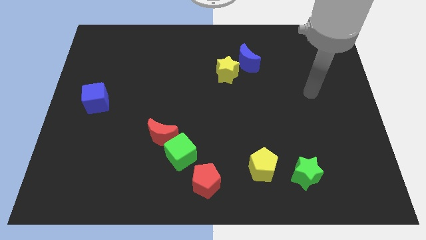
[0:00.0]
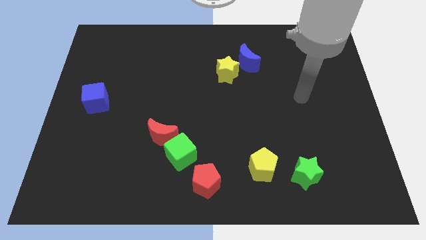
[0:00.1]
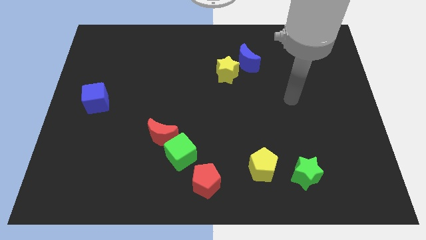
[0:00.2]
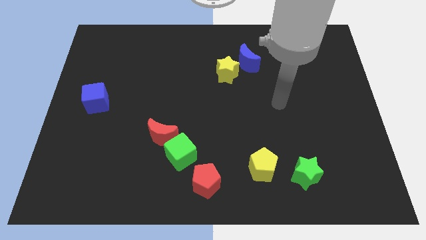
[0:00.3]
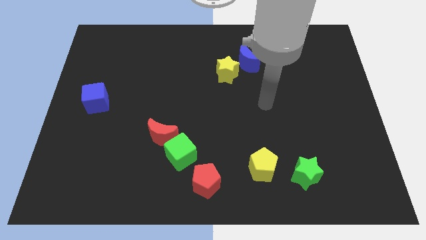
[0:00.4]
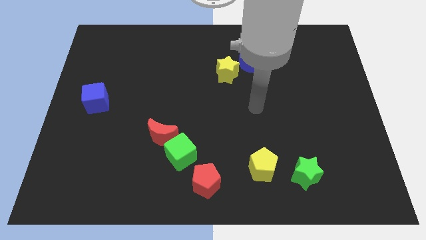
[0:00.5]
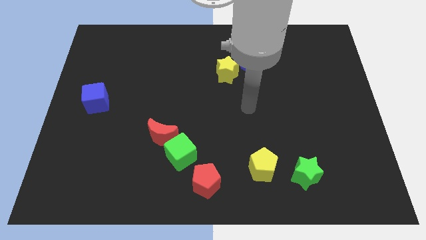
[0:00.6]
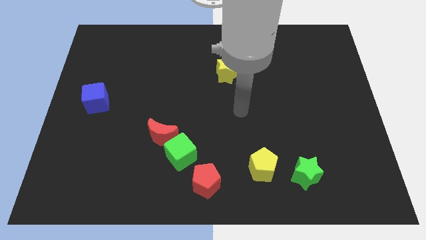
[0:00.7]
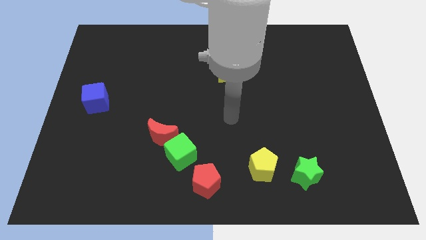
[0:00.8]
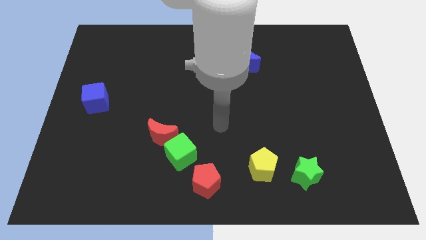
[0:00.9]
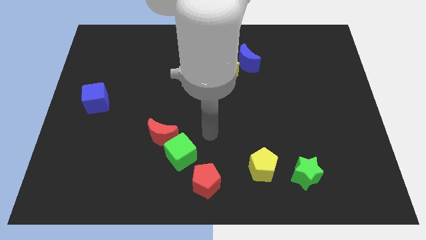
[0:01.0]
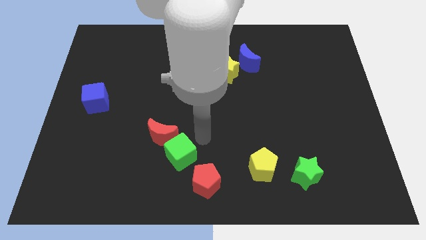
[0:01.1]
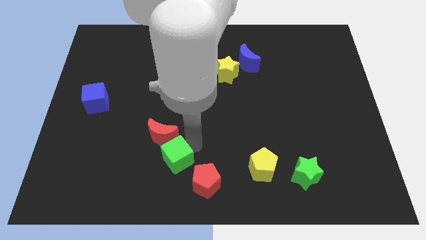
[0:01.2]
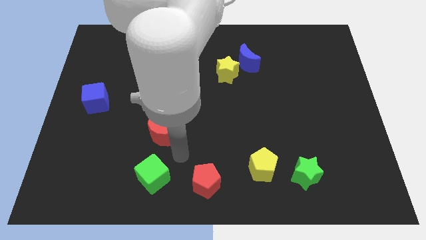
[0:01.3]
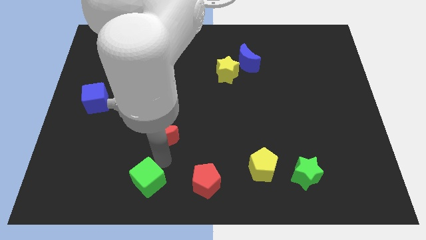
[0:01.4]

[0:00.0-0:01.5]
separate the red moon from the green cube

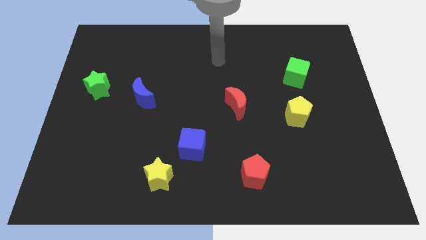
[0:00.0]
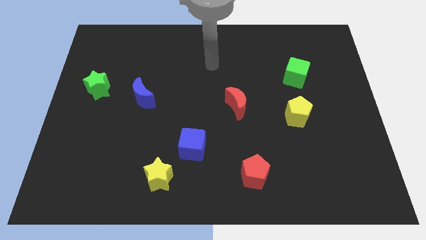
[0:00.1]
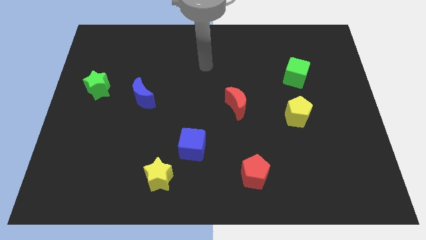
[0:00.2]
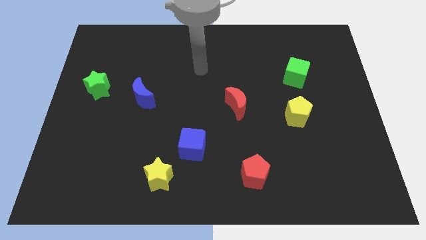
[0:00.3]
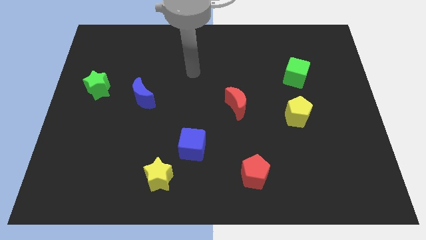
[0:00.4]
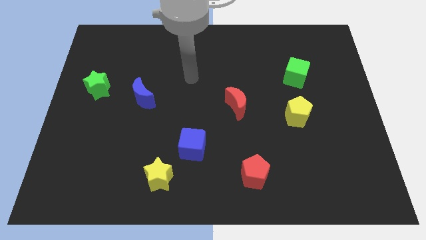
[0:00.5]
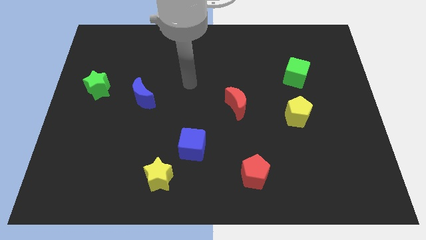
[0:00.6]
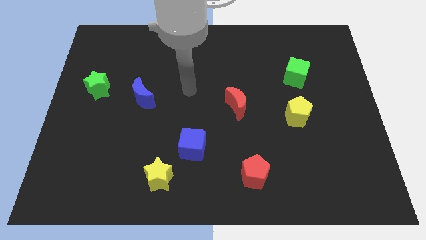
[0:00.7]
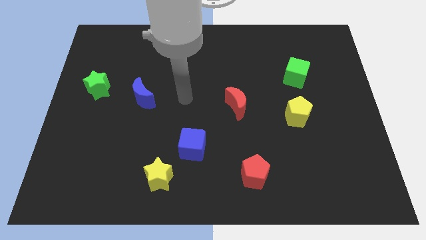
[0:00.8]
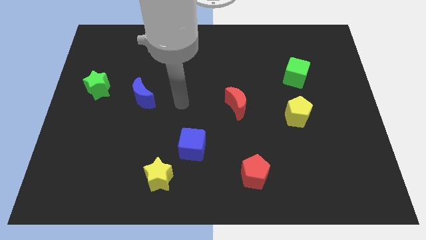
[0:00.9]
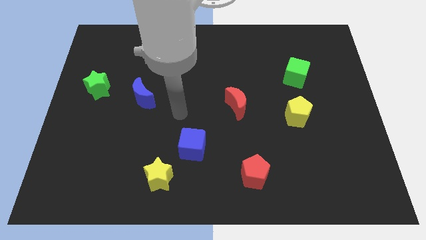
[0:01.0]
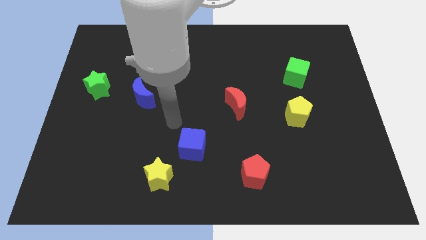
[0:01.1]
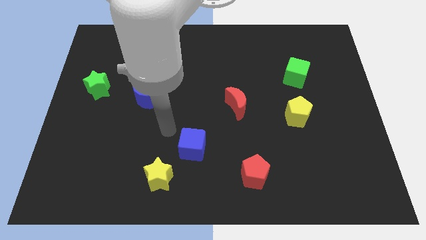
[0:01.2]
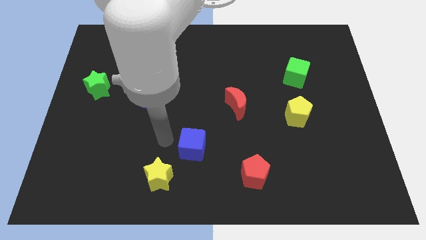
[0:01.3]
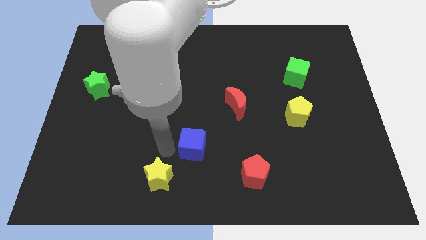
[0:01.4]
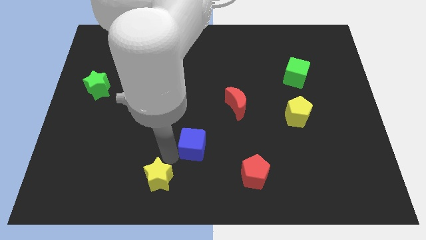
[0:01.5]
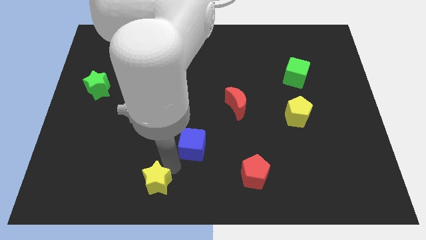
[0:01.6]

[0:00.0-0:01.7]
separate the blue cube from the yellow star

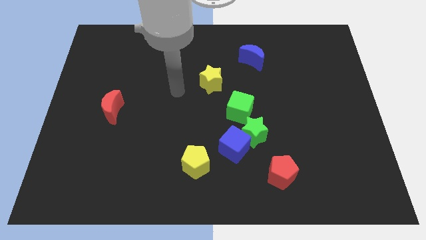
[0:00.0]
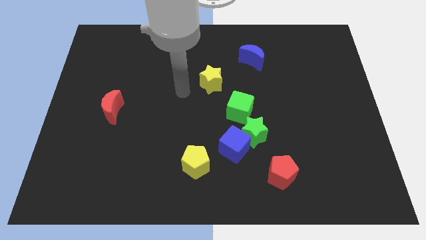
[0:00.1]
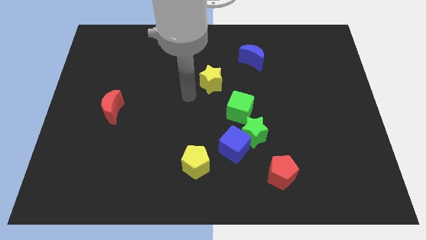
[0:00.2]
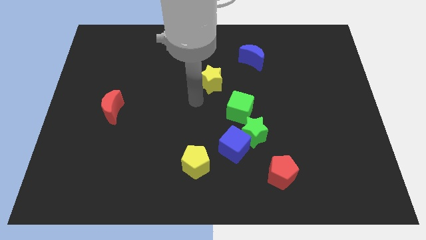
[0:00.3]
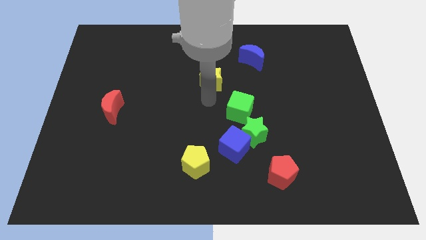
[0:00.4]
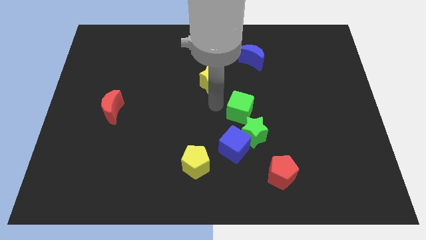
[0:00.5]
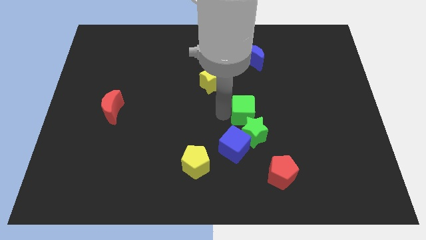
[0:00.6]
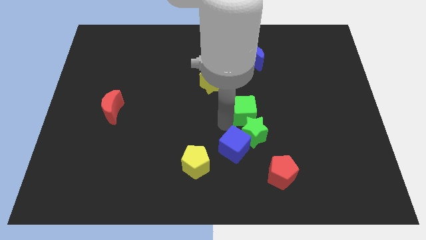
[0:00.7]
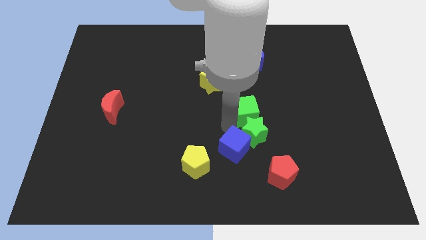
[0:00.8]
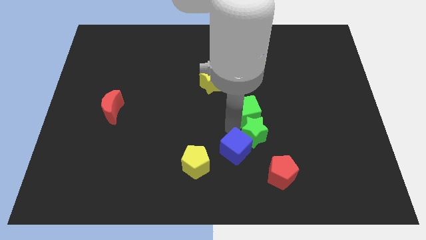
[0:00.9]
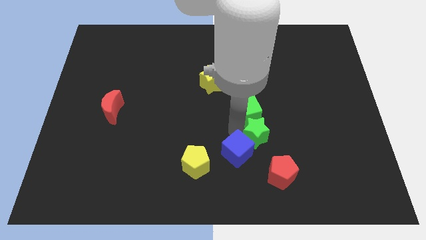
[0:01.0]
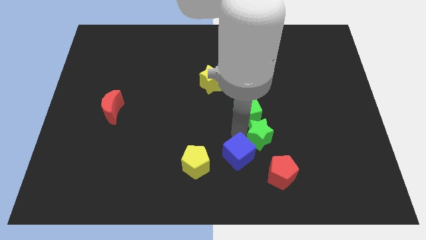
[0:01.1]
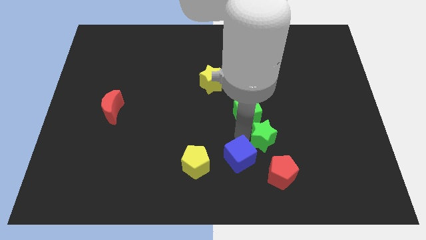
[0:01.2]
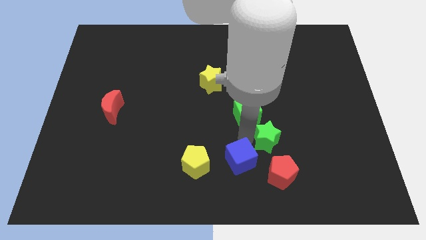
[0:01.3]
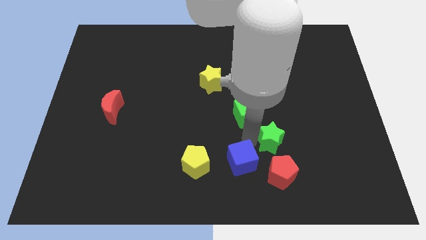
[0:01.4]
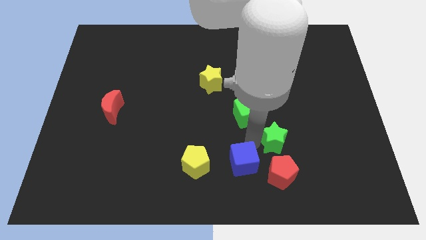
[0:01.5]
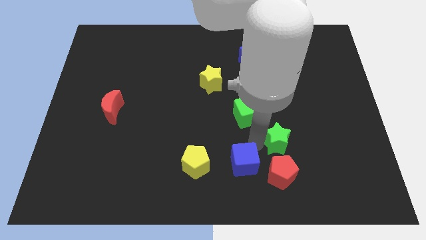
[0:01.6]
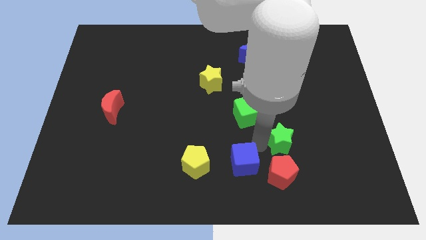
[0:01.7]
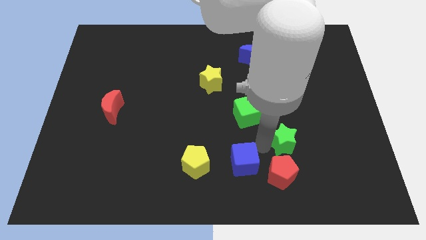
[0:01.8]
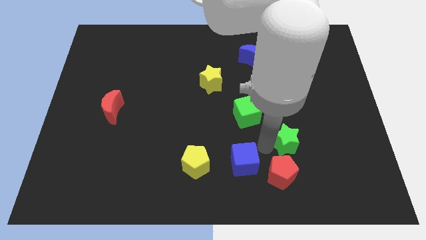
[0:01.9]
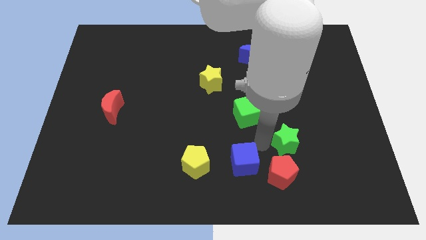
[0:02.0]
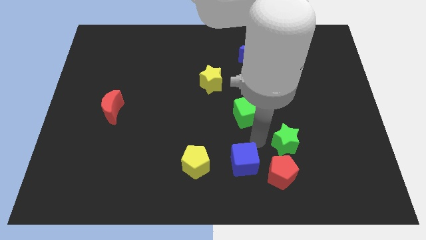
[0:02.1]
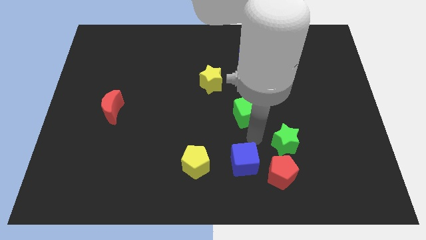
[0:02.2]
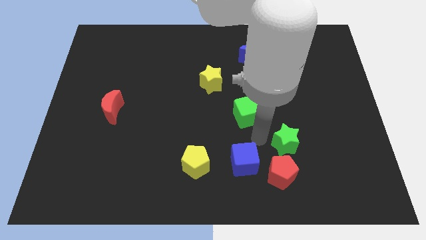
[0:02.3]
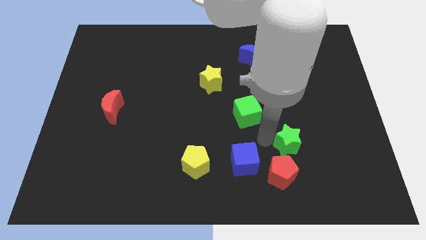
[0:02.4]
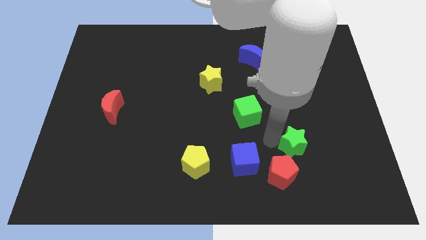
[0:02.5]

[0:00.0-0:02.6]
separate the green star from the blue cube and green cube

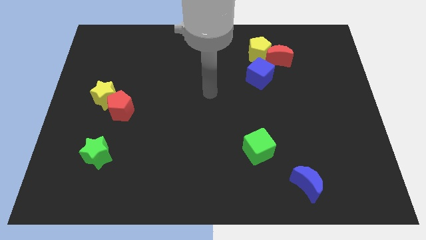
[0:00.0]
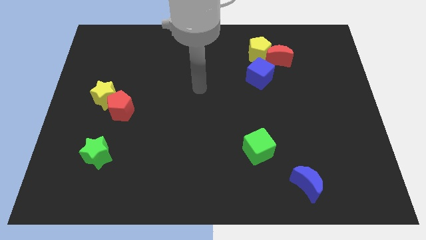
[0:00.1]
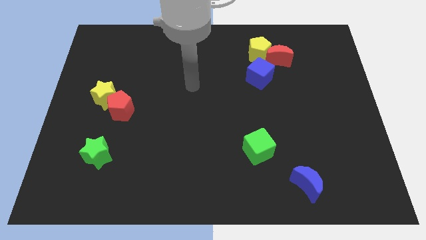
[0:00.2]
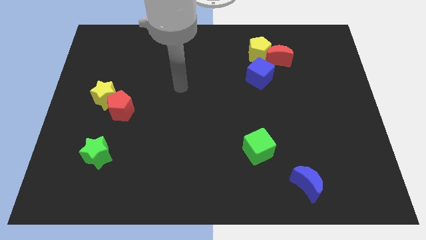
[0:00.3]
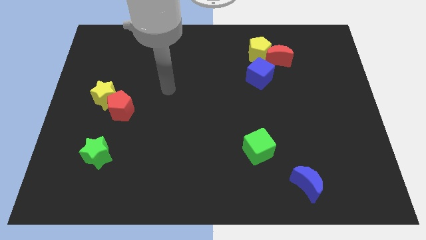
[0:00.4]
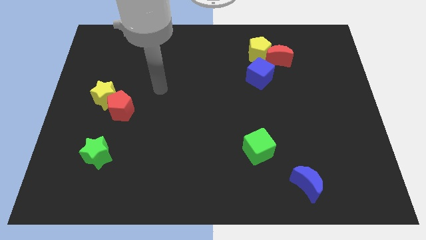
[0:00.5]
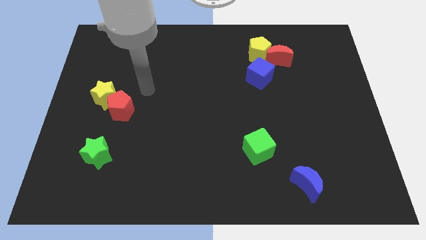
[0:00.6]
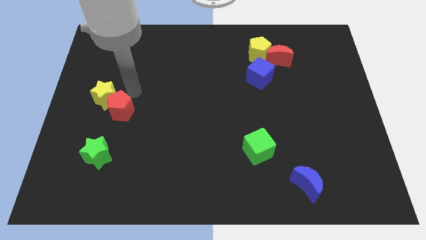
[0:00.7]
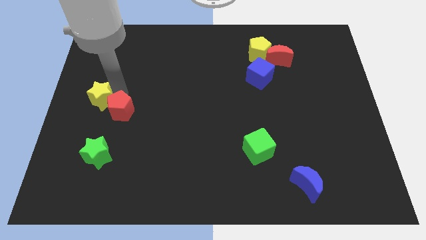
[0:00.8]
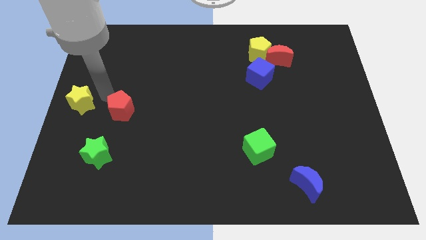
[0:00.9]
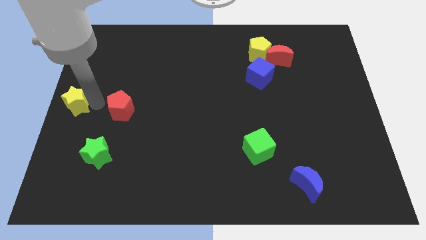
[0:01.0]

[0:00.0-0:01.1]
separate the red pentagon from the yellow star

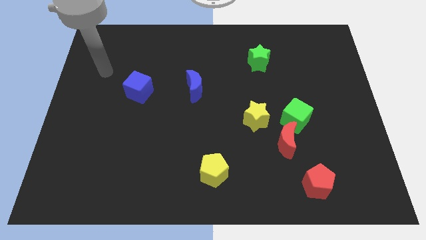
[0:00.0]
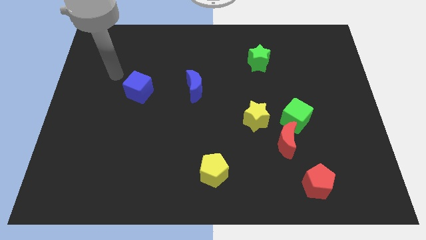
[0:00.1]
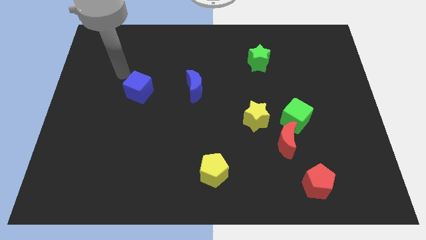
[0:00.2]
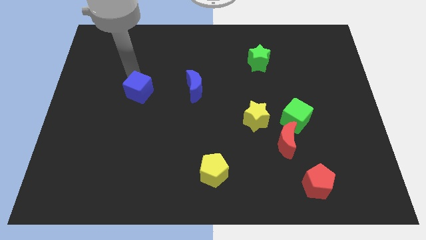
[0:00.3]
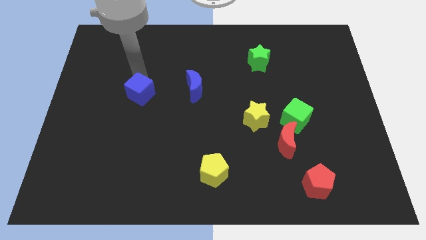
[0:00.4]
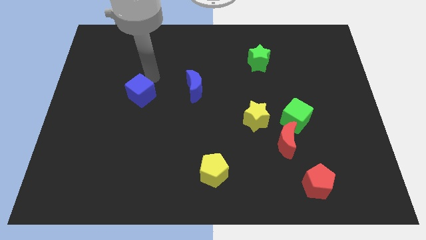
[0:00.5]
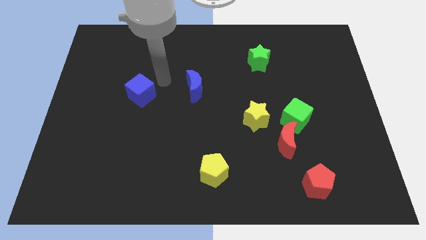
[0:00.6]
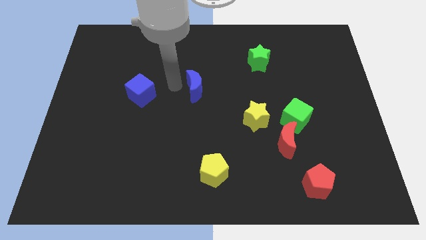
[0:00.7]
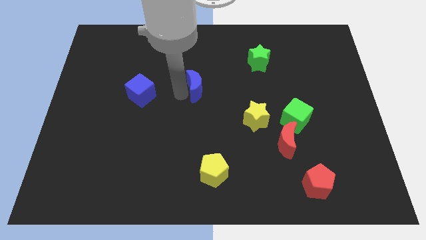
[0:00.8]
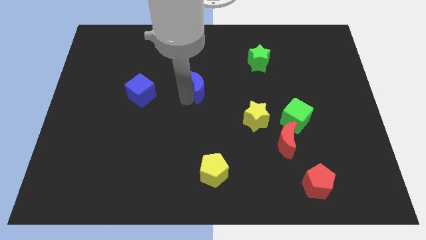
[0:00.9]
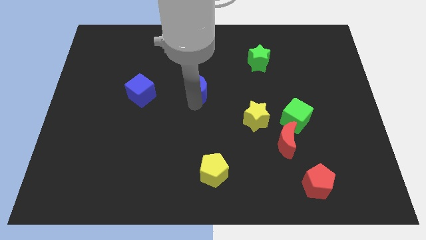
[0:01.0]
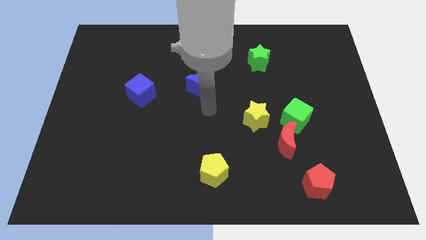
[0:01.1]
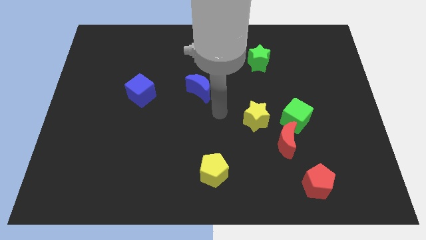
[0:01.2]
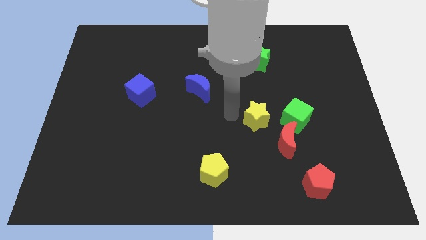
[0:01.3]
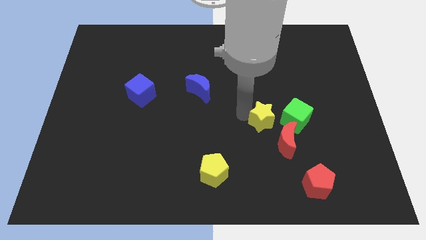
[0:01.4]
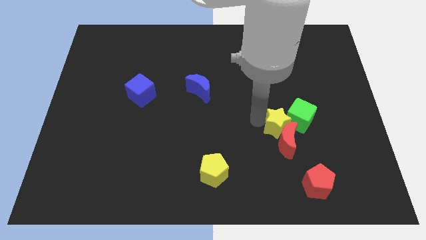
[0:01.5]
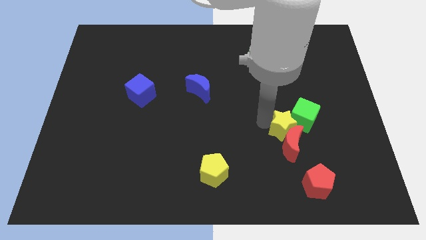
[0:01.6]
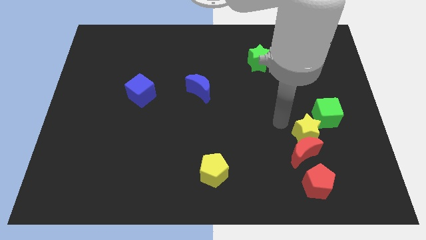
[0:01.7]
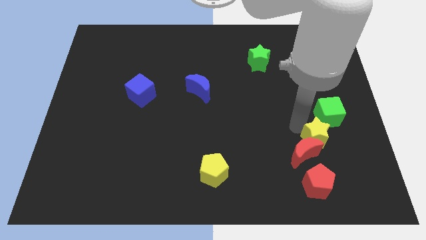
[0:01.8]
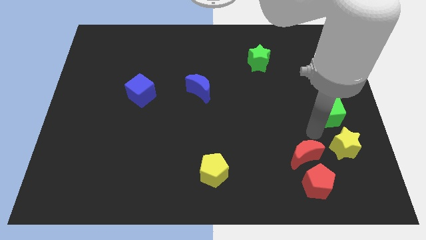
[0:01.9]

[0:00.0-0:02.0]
pull the red moon apart from the green cube and yellow star

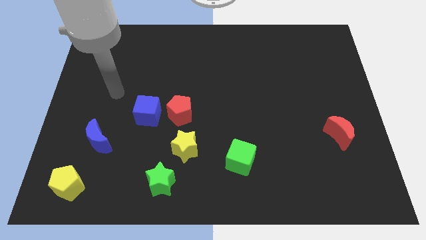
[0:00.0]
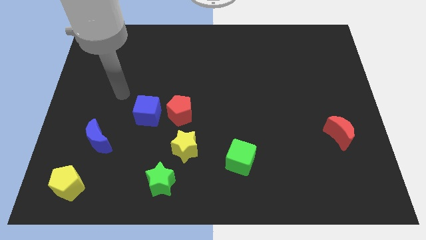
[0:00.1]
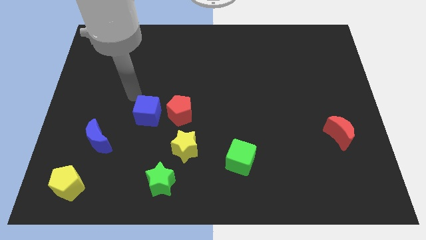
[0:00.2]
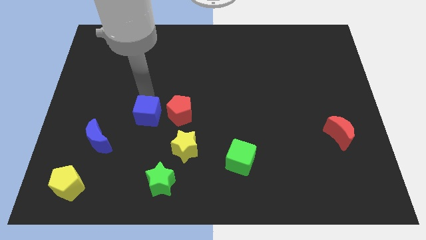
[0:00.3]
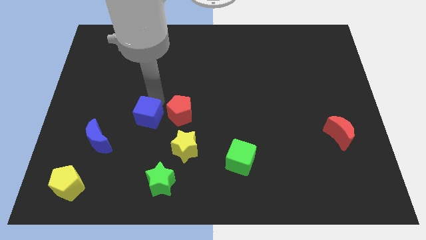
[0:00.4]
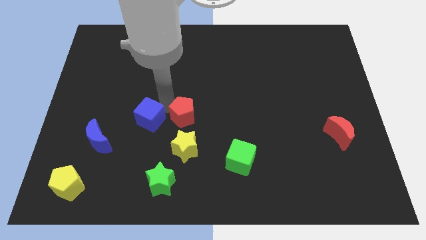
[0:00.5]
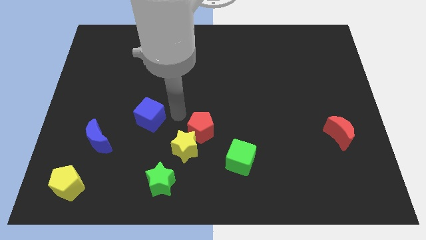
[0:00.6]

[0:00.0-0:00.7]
move the blue cube away from the red pentagon
